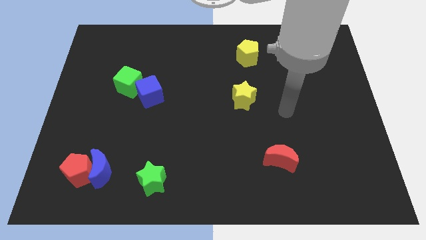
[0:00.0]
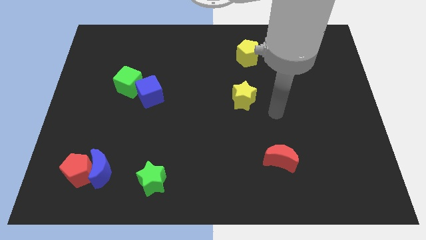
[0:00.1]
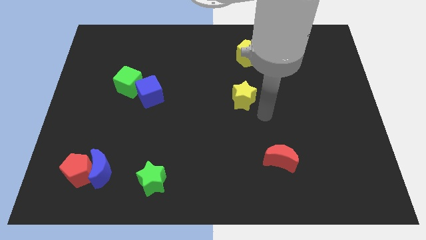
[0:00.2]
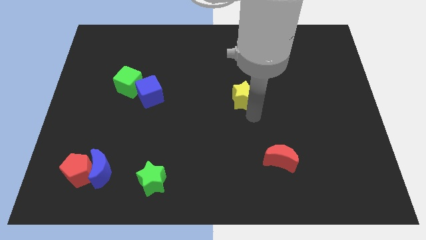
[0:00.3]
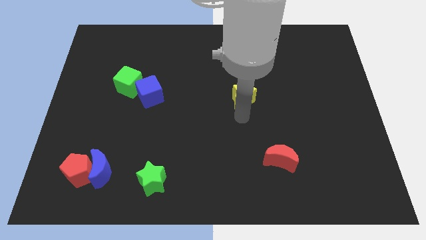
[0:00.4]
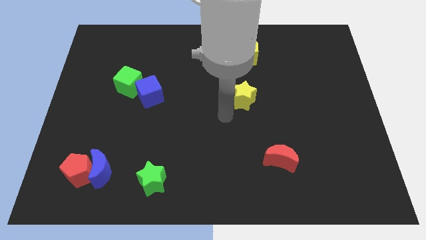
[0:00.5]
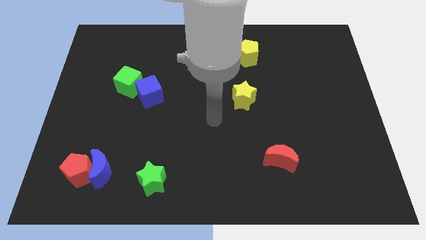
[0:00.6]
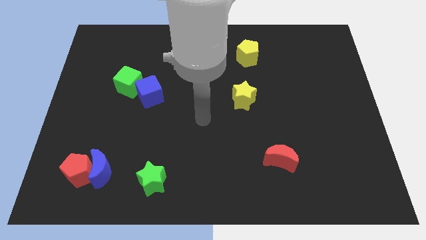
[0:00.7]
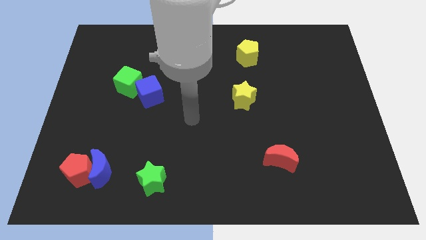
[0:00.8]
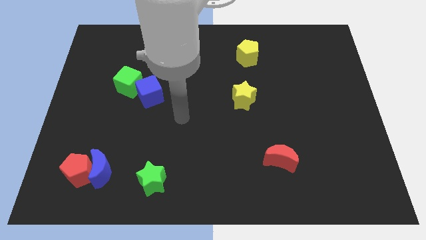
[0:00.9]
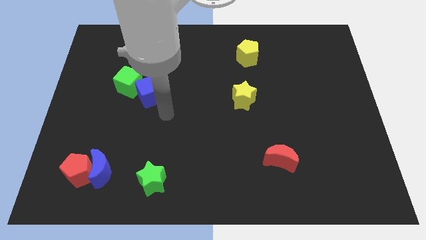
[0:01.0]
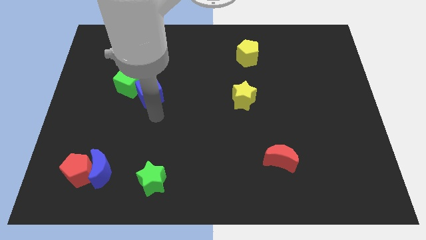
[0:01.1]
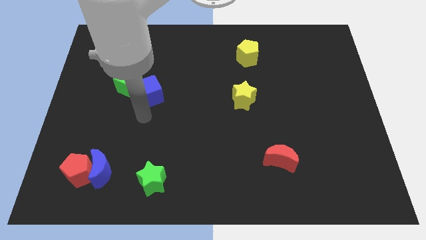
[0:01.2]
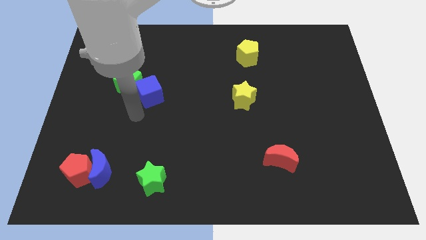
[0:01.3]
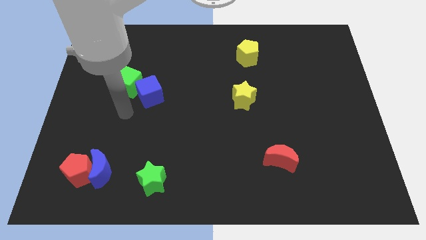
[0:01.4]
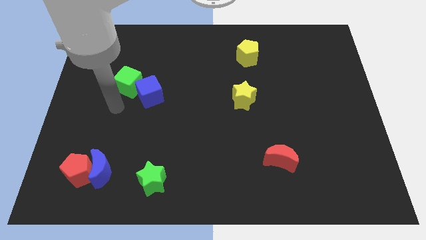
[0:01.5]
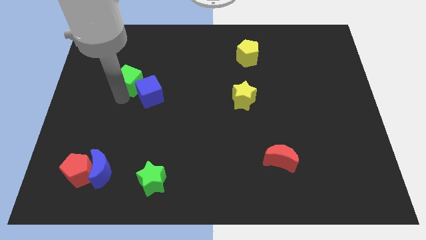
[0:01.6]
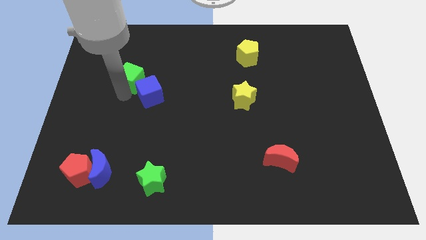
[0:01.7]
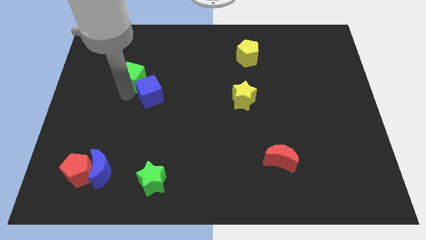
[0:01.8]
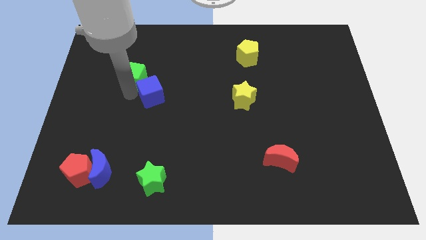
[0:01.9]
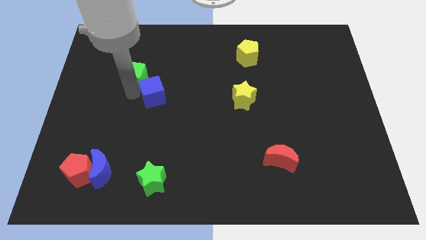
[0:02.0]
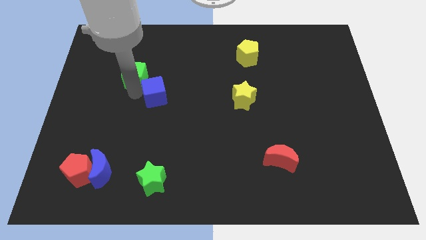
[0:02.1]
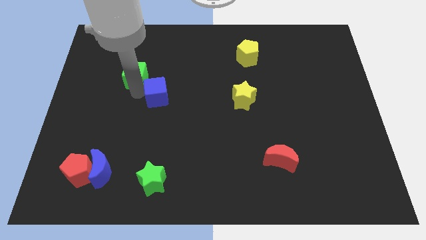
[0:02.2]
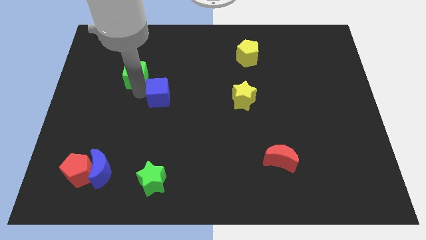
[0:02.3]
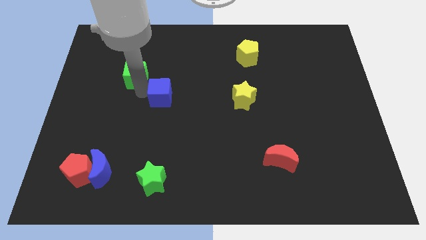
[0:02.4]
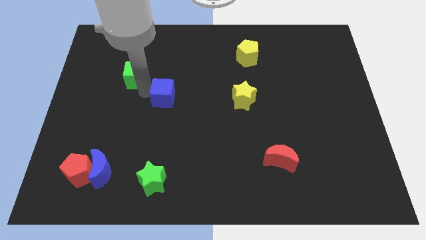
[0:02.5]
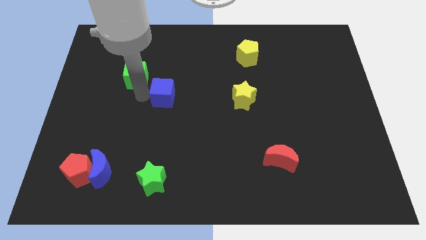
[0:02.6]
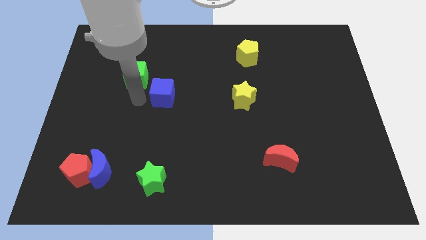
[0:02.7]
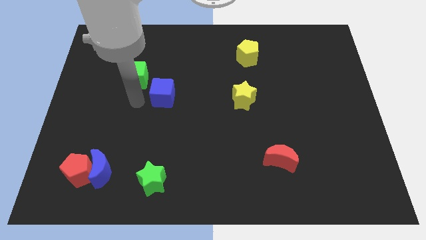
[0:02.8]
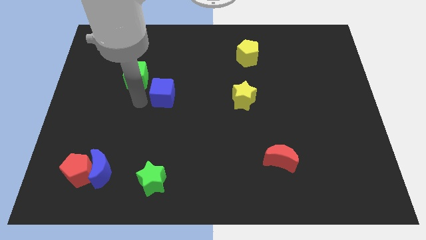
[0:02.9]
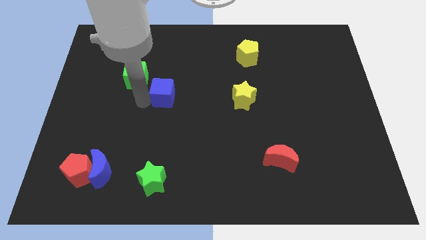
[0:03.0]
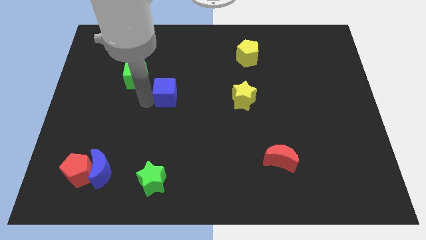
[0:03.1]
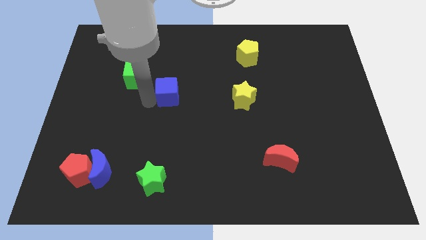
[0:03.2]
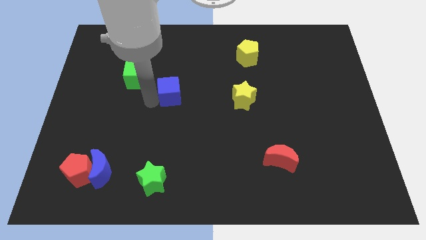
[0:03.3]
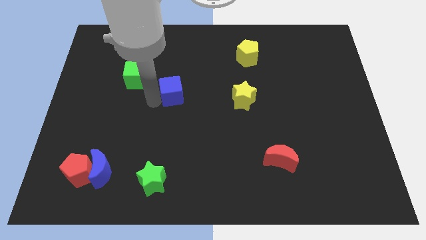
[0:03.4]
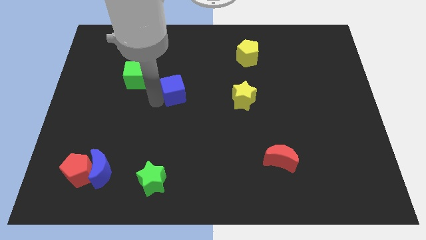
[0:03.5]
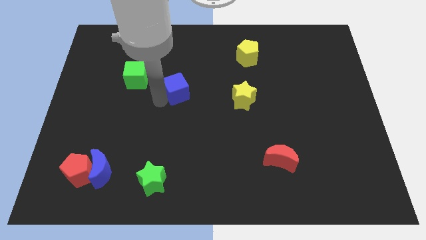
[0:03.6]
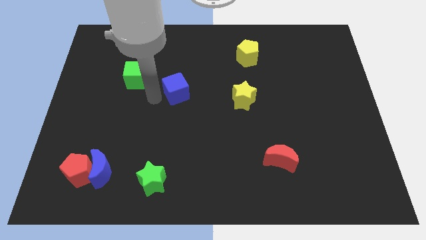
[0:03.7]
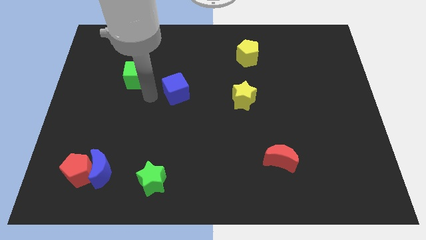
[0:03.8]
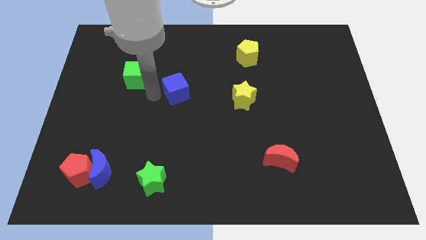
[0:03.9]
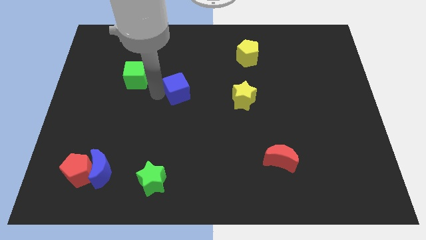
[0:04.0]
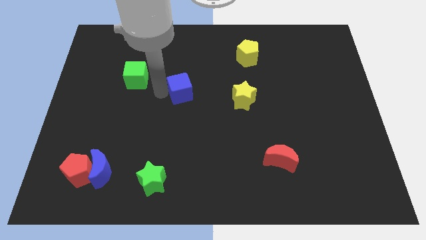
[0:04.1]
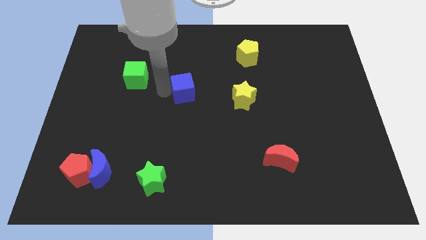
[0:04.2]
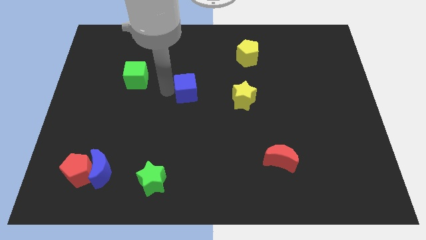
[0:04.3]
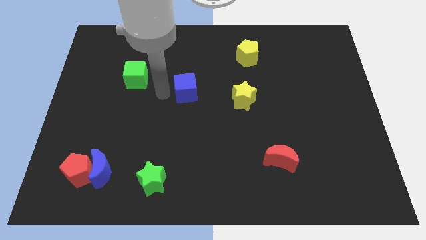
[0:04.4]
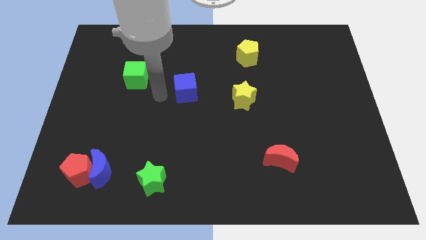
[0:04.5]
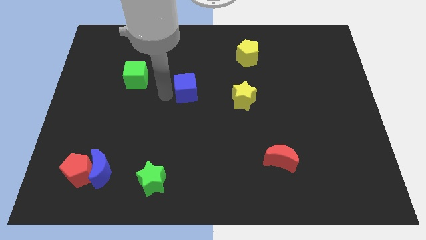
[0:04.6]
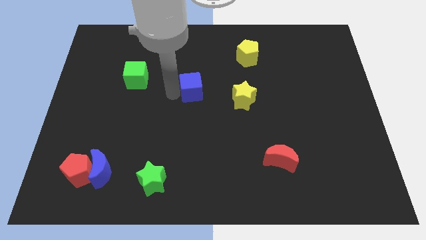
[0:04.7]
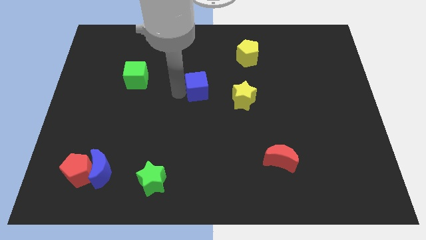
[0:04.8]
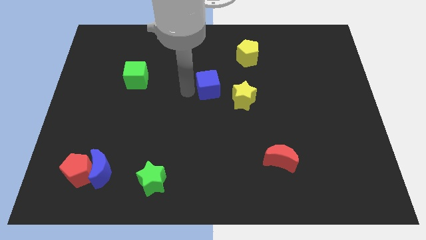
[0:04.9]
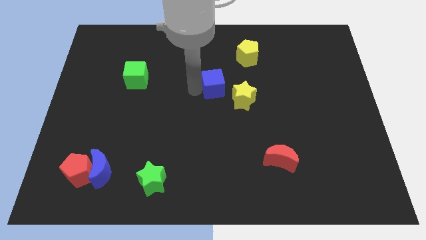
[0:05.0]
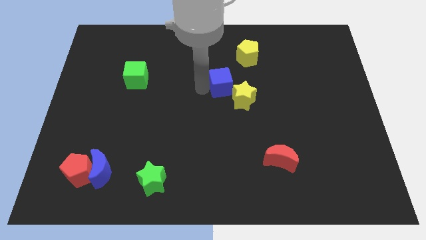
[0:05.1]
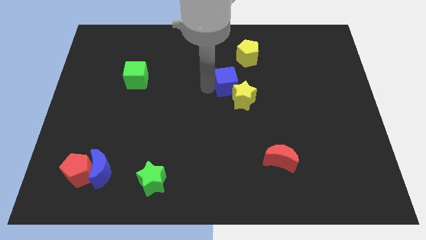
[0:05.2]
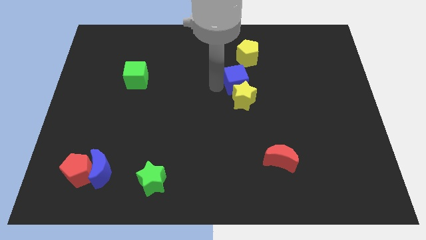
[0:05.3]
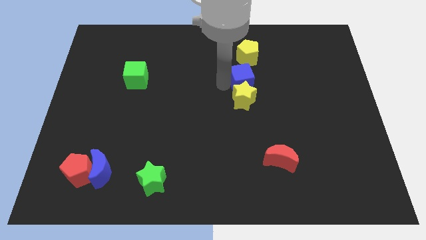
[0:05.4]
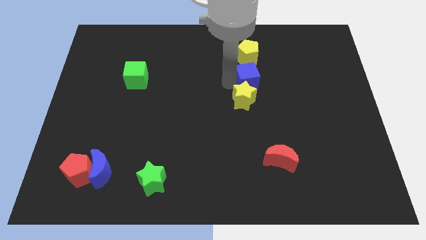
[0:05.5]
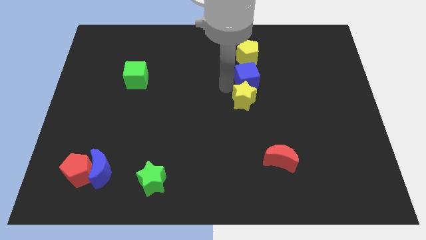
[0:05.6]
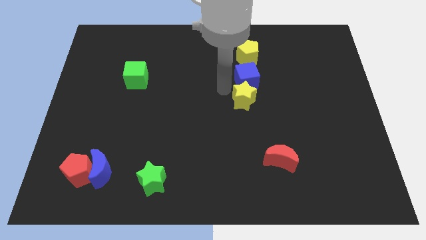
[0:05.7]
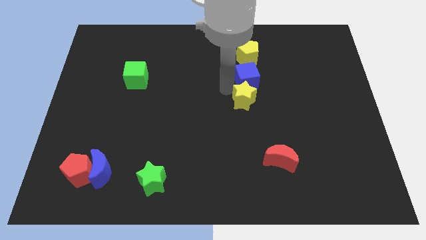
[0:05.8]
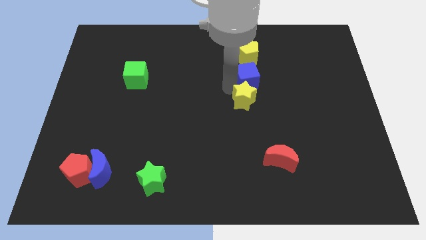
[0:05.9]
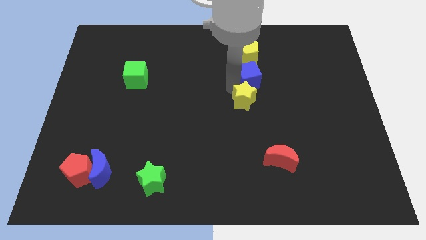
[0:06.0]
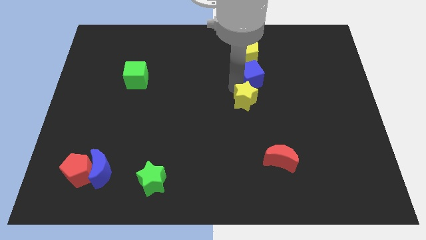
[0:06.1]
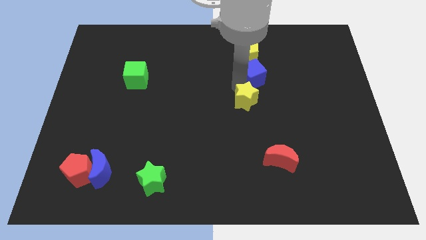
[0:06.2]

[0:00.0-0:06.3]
put the blue cube to the bottom right side of the yellow pentagon
